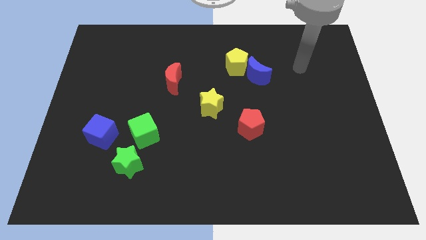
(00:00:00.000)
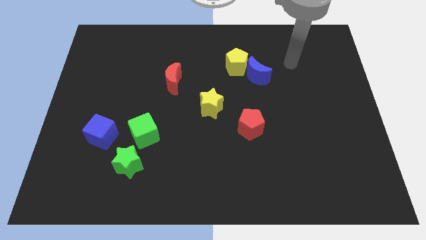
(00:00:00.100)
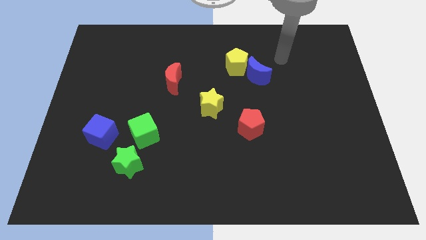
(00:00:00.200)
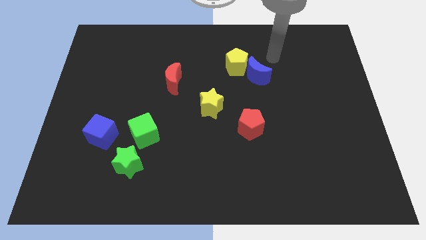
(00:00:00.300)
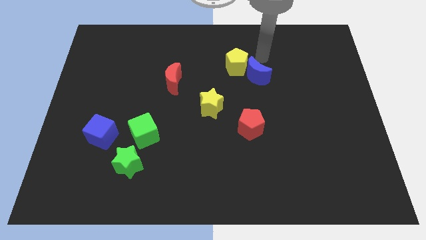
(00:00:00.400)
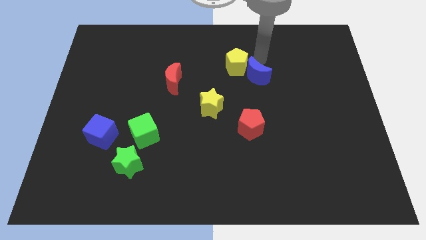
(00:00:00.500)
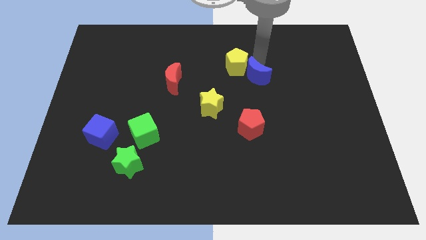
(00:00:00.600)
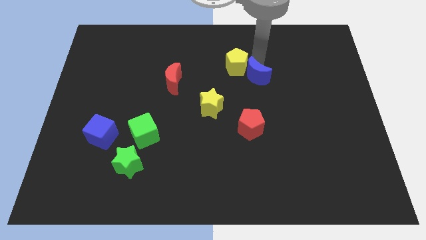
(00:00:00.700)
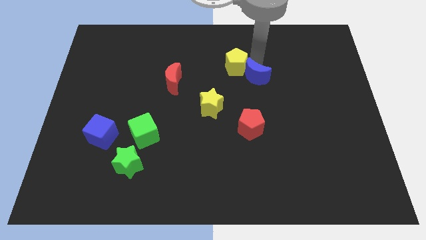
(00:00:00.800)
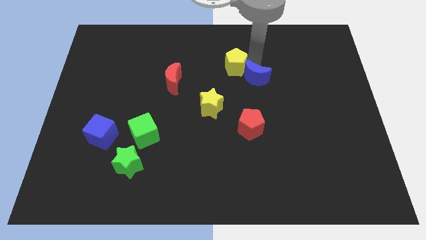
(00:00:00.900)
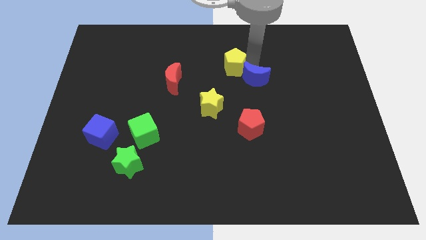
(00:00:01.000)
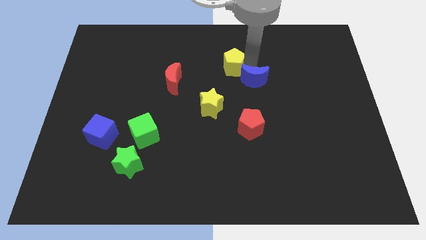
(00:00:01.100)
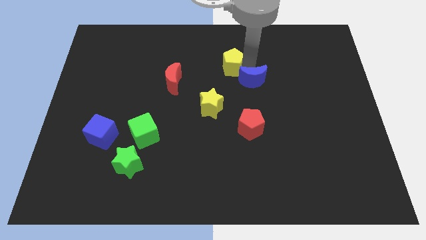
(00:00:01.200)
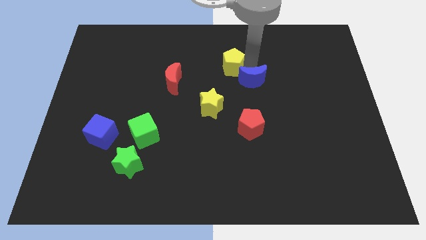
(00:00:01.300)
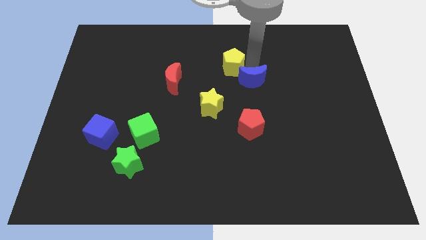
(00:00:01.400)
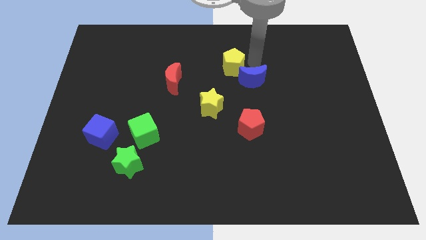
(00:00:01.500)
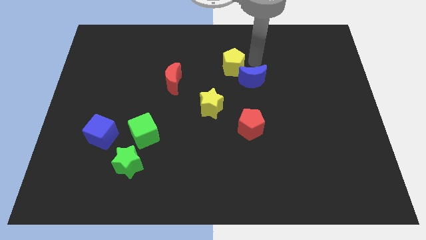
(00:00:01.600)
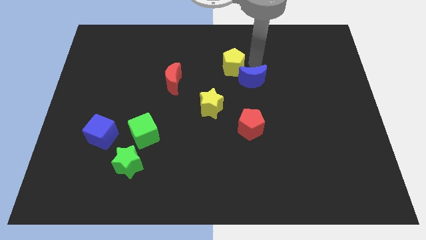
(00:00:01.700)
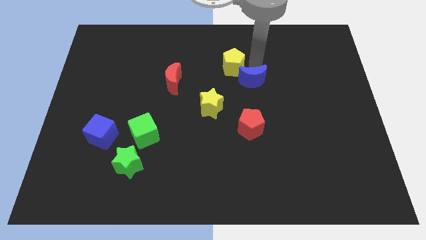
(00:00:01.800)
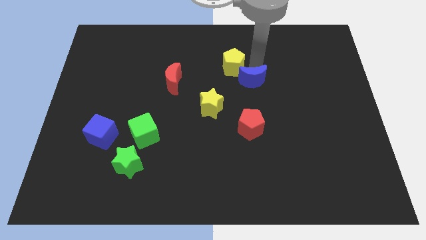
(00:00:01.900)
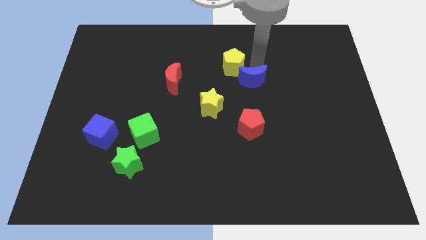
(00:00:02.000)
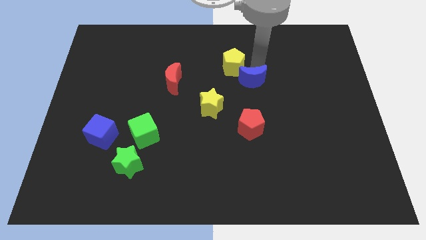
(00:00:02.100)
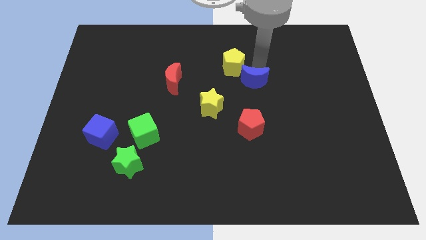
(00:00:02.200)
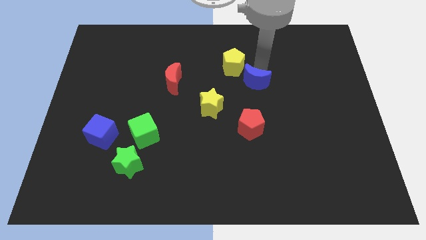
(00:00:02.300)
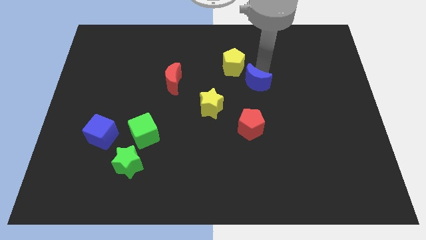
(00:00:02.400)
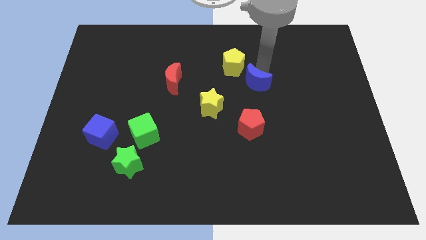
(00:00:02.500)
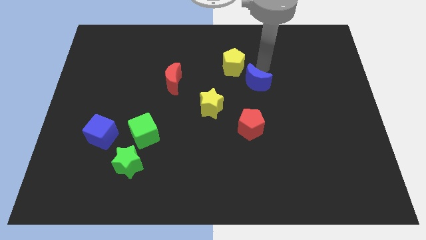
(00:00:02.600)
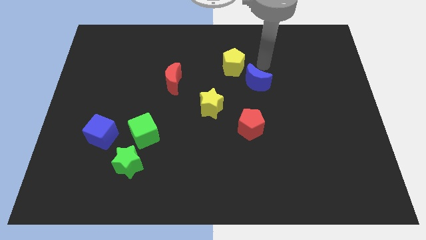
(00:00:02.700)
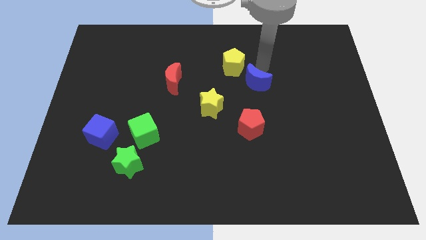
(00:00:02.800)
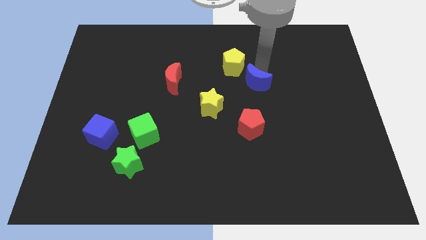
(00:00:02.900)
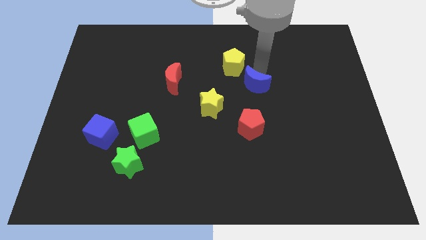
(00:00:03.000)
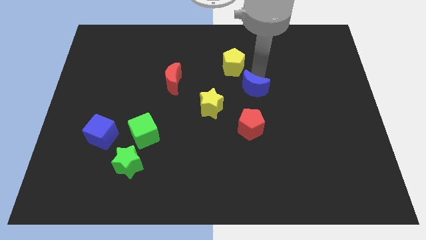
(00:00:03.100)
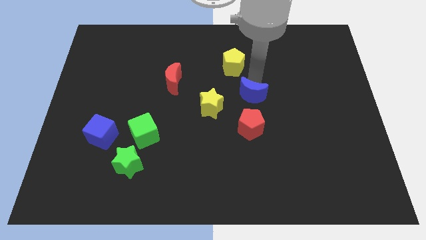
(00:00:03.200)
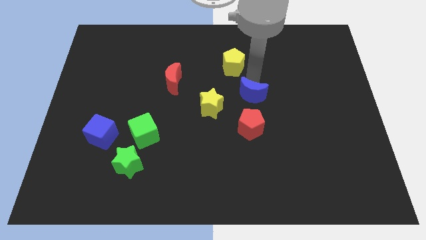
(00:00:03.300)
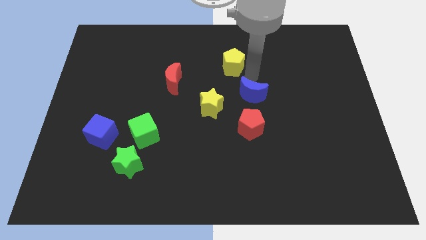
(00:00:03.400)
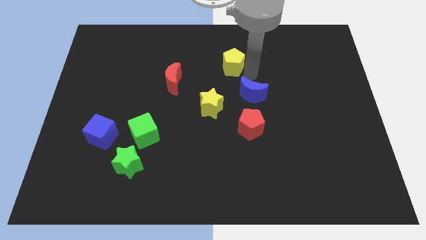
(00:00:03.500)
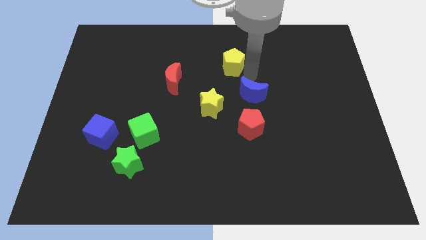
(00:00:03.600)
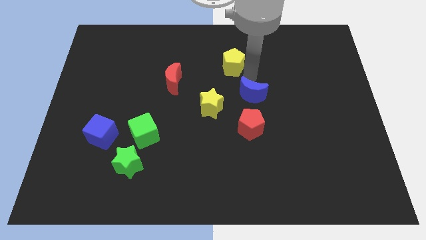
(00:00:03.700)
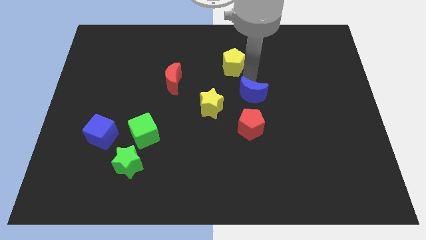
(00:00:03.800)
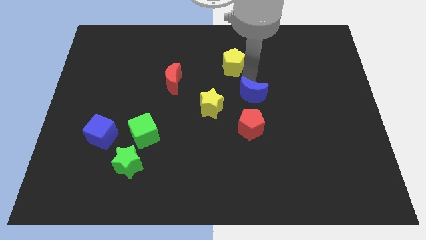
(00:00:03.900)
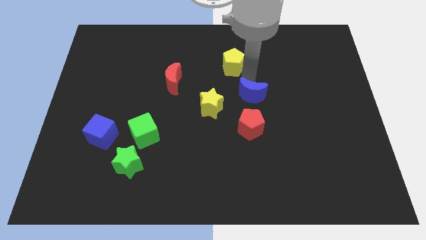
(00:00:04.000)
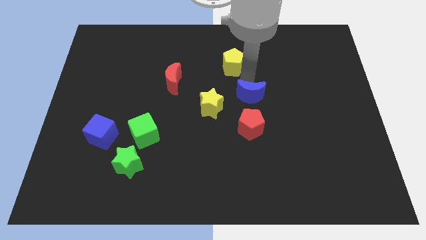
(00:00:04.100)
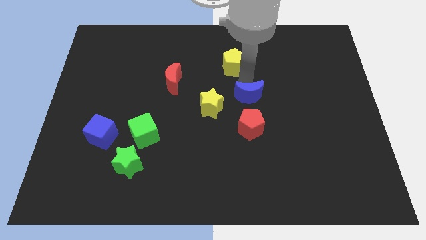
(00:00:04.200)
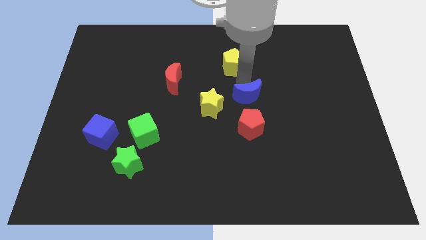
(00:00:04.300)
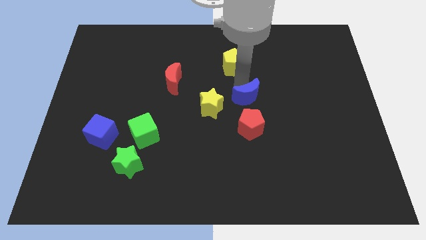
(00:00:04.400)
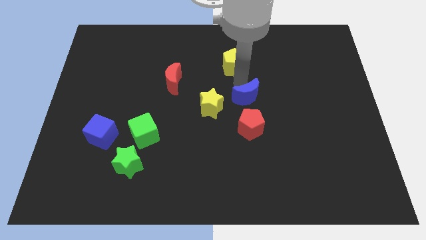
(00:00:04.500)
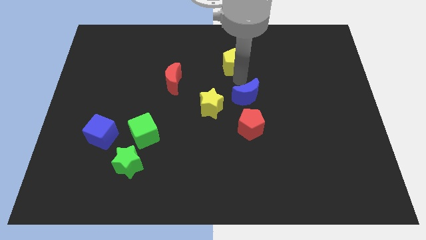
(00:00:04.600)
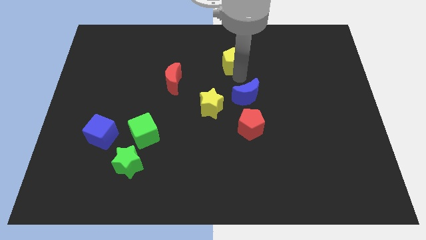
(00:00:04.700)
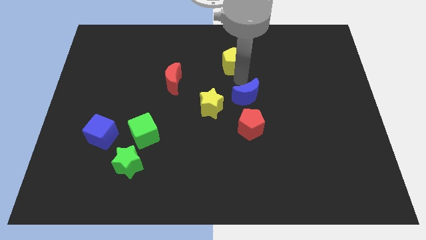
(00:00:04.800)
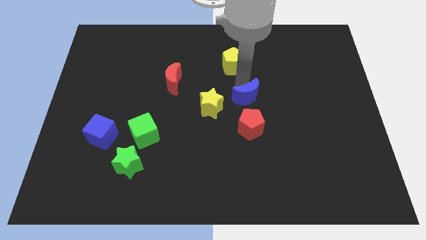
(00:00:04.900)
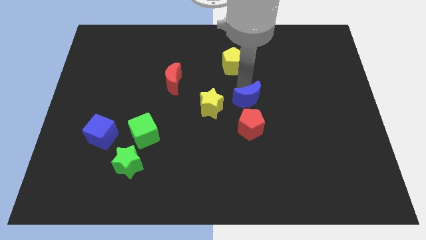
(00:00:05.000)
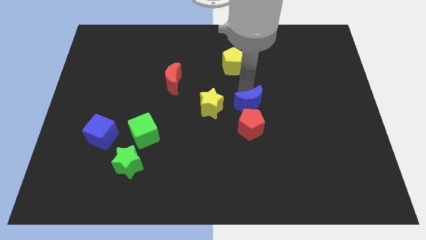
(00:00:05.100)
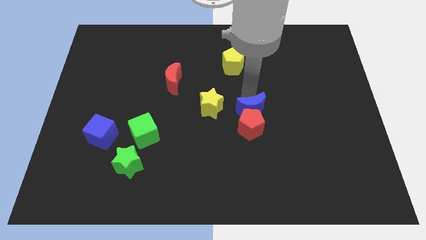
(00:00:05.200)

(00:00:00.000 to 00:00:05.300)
put the blue moon towards the red pentagon

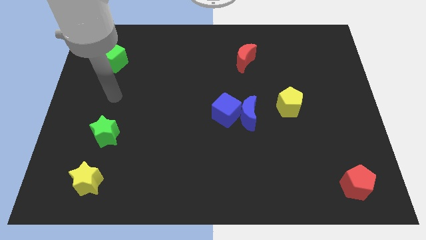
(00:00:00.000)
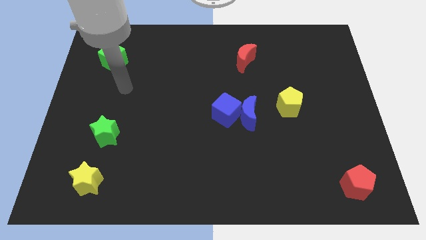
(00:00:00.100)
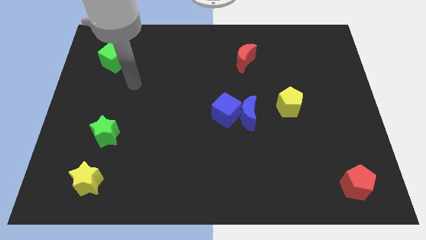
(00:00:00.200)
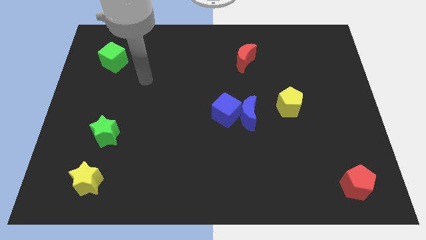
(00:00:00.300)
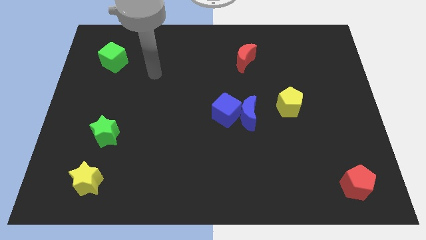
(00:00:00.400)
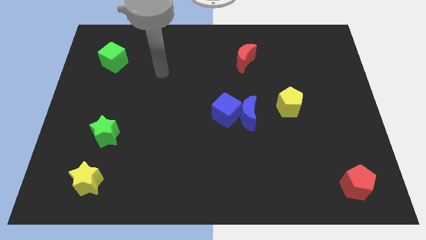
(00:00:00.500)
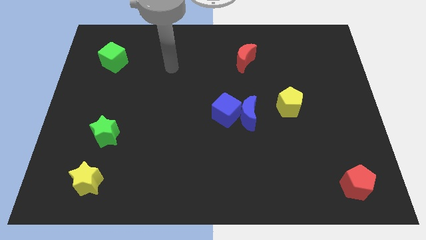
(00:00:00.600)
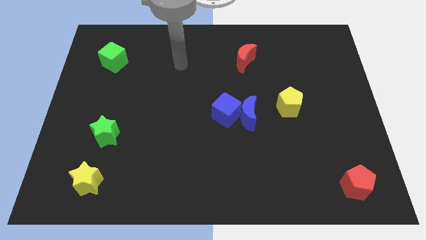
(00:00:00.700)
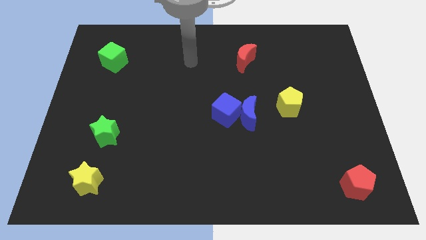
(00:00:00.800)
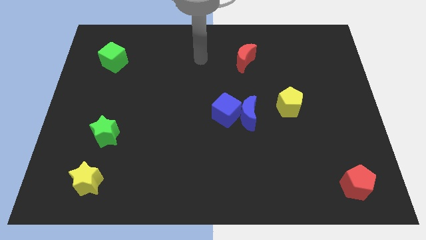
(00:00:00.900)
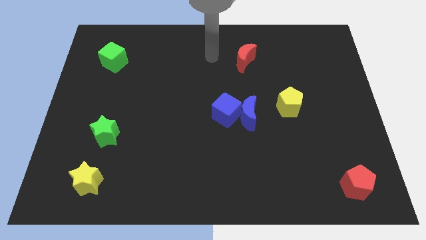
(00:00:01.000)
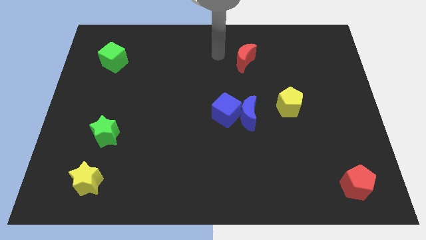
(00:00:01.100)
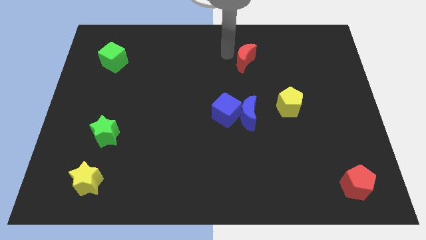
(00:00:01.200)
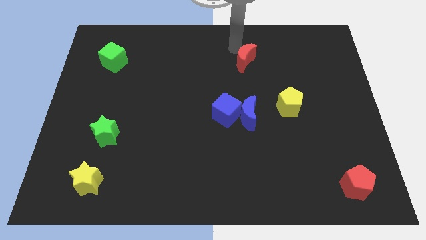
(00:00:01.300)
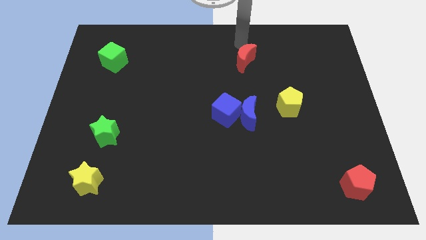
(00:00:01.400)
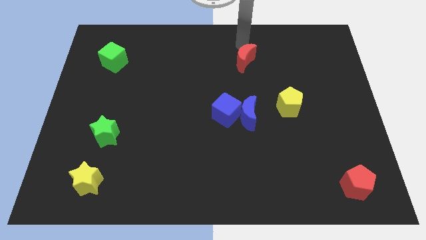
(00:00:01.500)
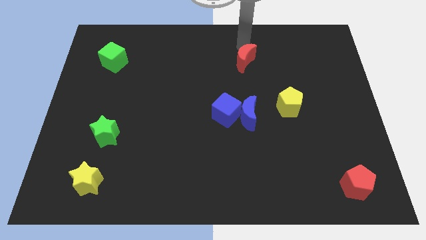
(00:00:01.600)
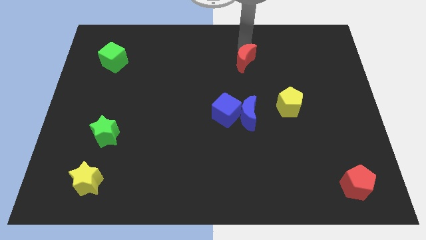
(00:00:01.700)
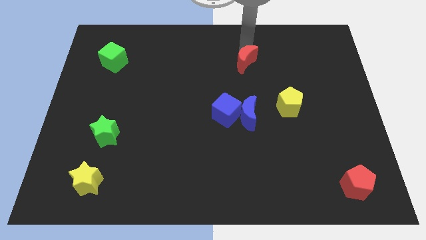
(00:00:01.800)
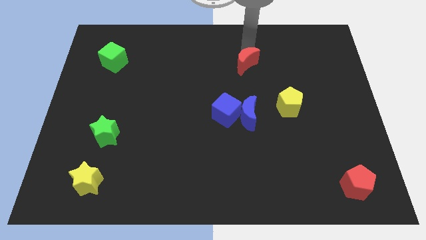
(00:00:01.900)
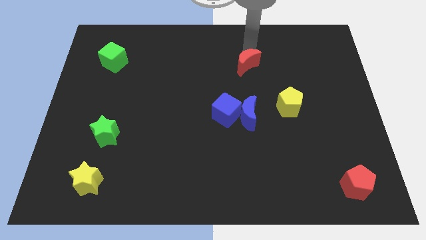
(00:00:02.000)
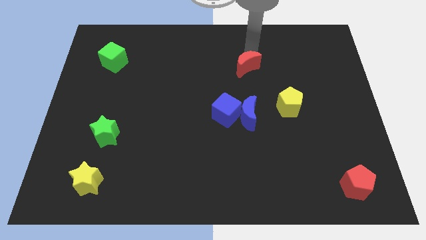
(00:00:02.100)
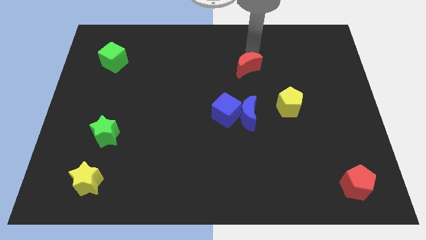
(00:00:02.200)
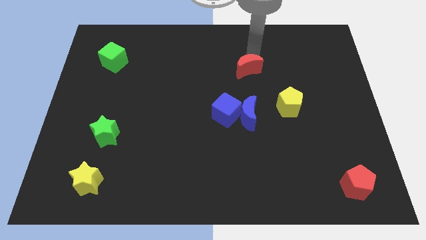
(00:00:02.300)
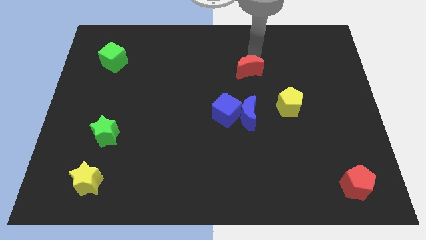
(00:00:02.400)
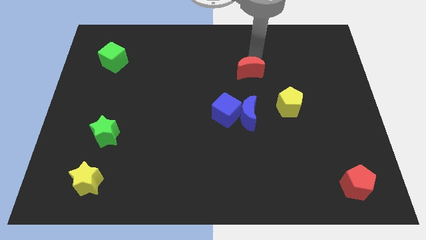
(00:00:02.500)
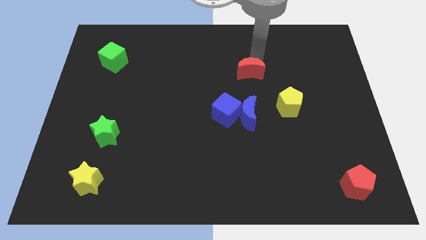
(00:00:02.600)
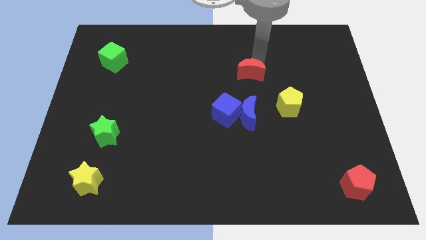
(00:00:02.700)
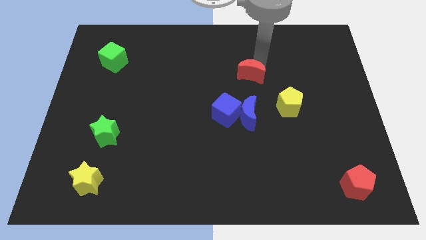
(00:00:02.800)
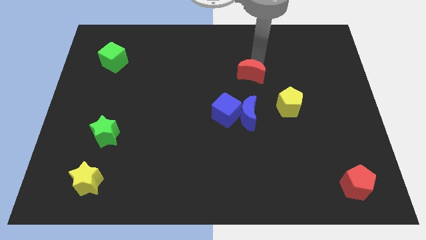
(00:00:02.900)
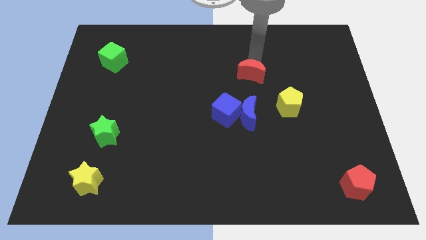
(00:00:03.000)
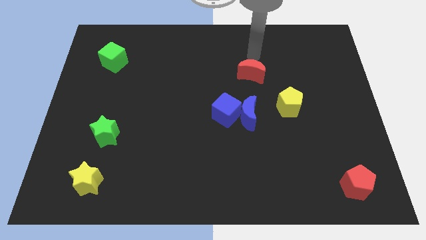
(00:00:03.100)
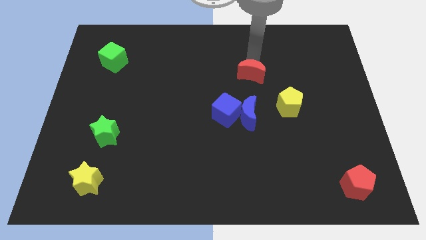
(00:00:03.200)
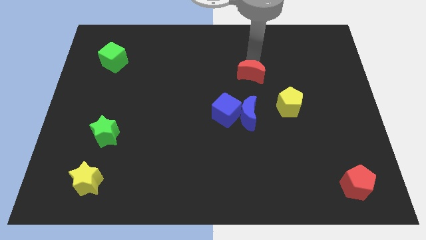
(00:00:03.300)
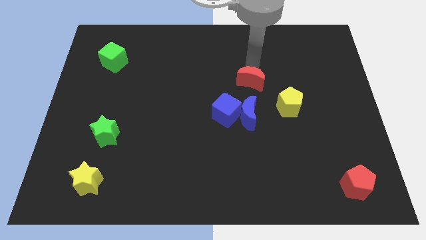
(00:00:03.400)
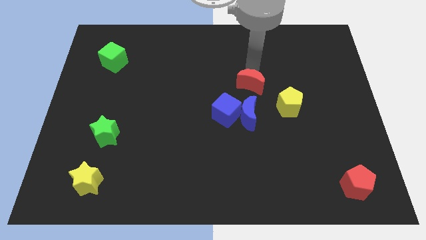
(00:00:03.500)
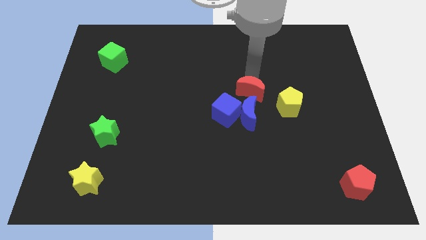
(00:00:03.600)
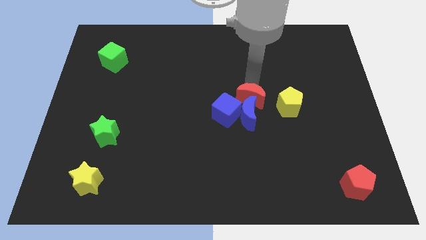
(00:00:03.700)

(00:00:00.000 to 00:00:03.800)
put the red moon close to the blue moon
